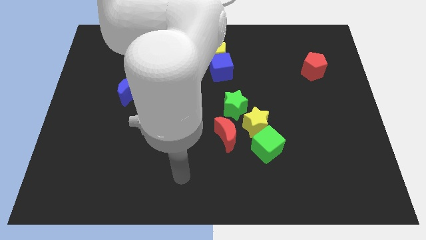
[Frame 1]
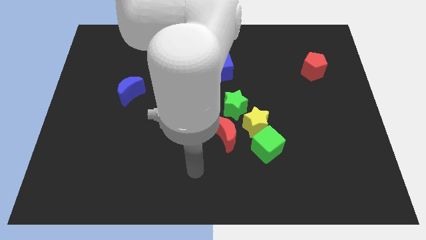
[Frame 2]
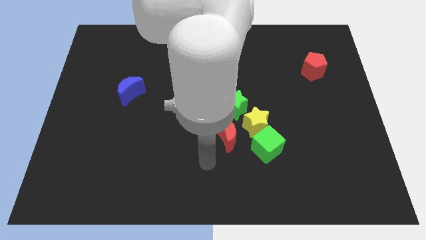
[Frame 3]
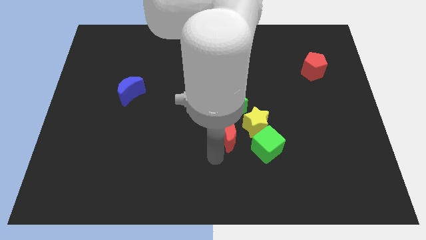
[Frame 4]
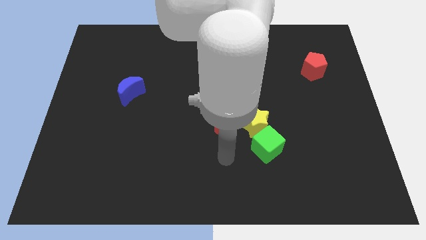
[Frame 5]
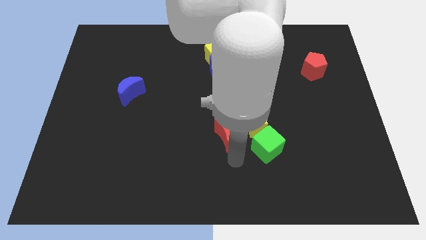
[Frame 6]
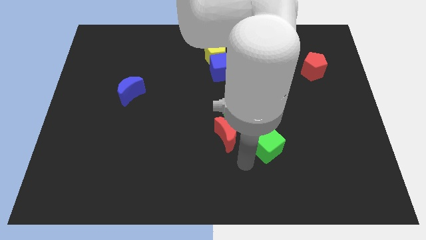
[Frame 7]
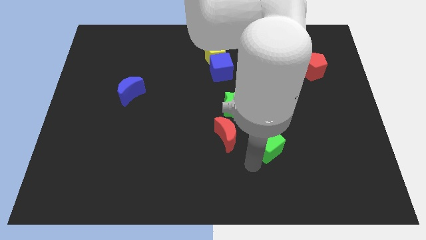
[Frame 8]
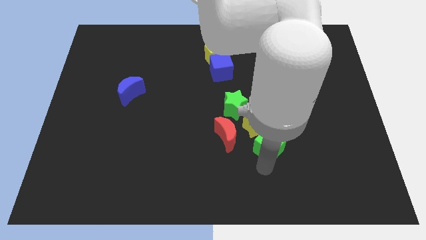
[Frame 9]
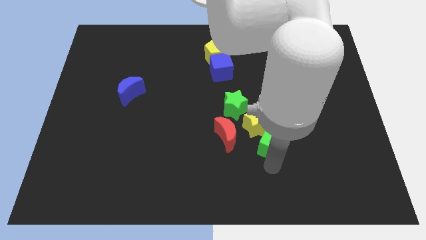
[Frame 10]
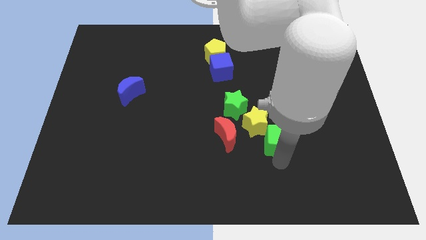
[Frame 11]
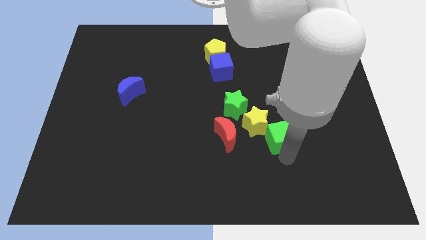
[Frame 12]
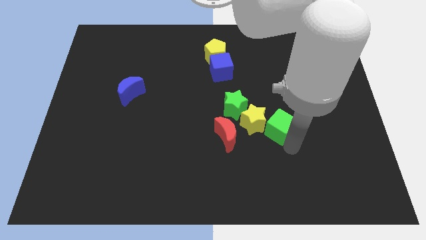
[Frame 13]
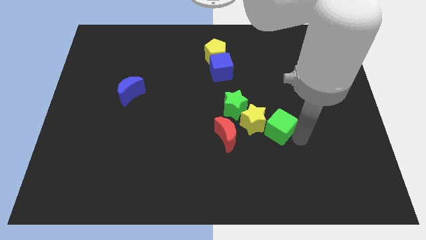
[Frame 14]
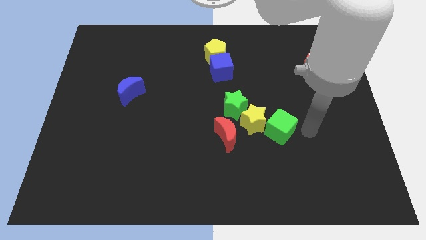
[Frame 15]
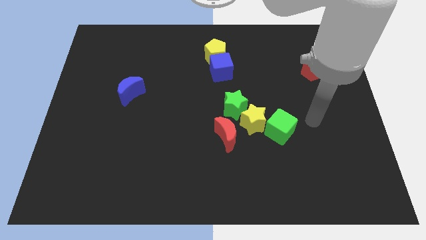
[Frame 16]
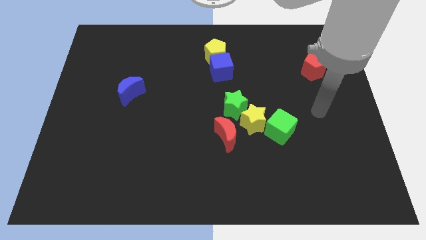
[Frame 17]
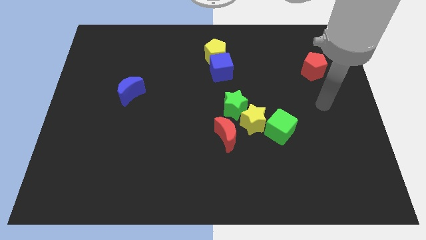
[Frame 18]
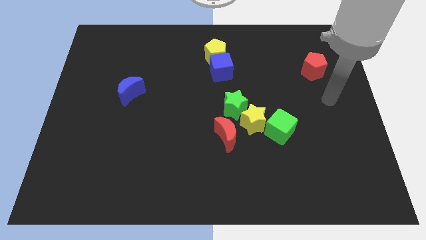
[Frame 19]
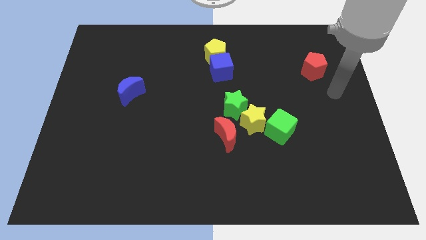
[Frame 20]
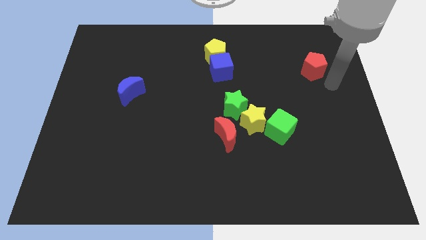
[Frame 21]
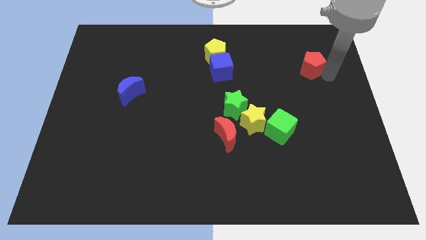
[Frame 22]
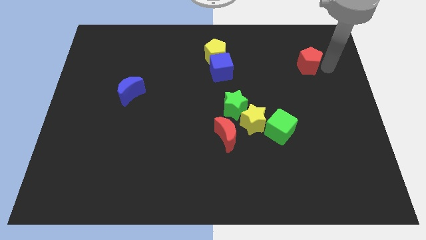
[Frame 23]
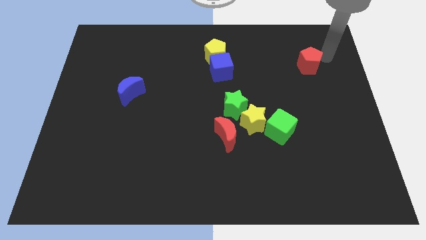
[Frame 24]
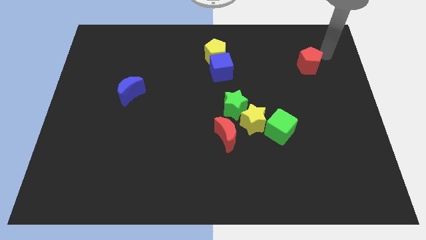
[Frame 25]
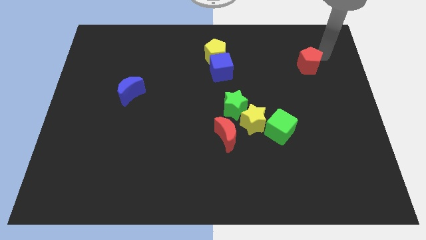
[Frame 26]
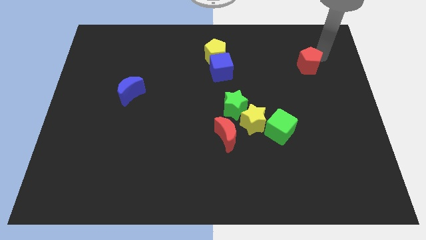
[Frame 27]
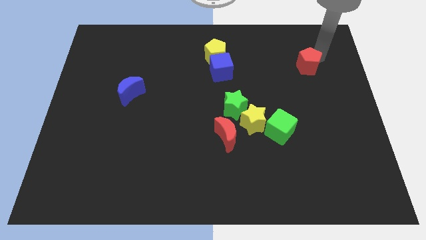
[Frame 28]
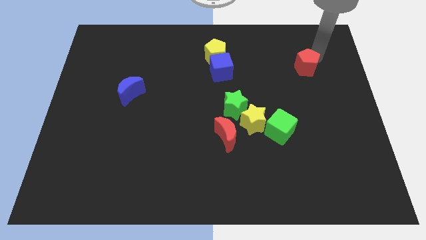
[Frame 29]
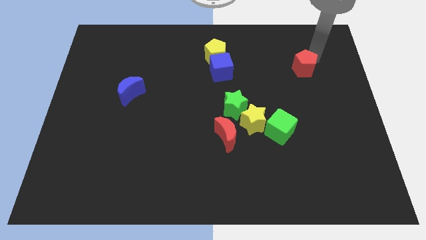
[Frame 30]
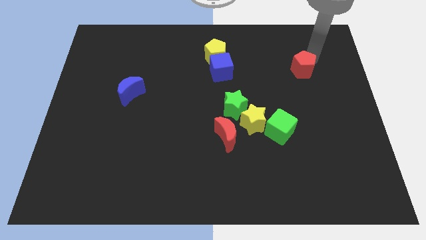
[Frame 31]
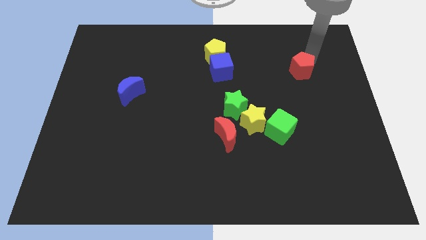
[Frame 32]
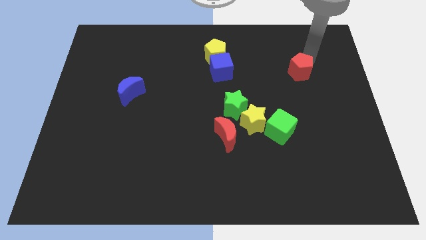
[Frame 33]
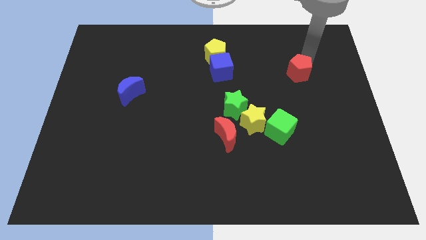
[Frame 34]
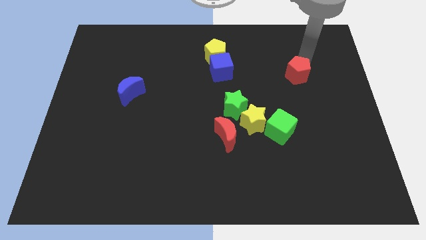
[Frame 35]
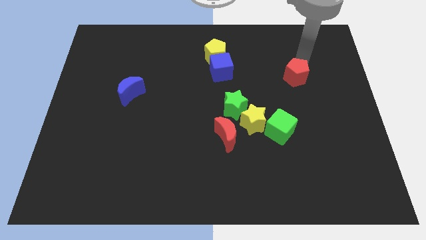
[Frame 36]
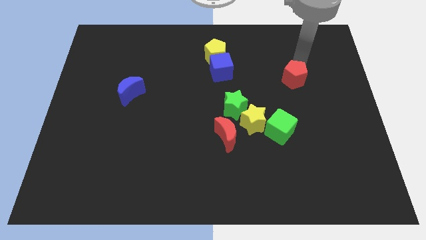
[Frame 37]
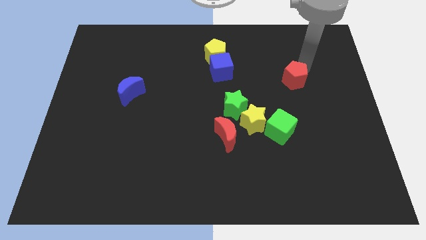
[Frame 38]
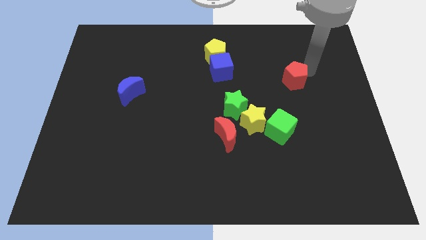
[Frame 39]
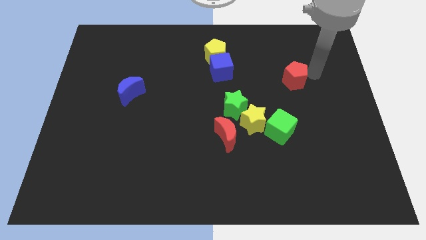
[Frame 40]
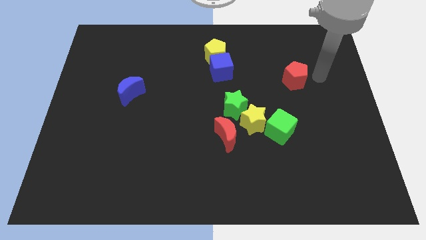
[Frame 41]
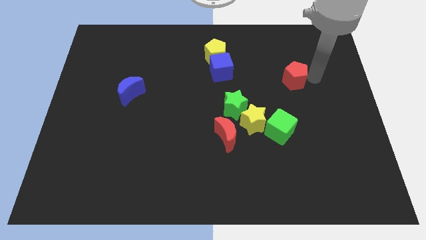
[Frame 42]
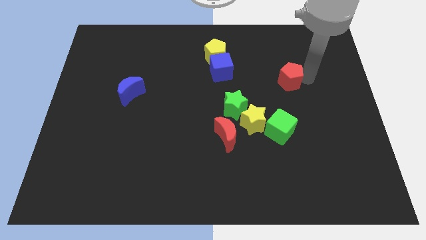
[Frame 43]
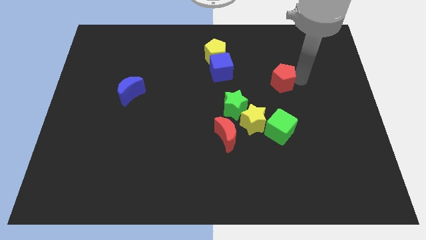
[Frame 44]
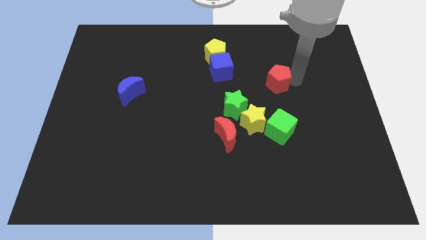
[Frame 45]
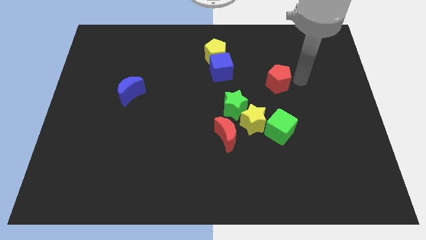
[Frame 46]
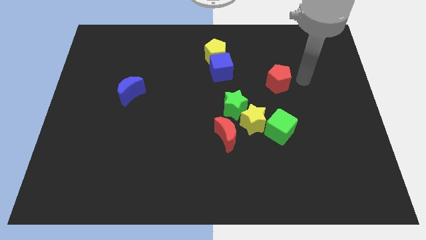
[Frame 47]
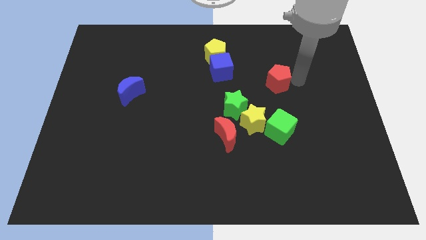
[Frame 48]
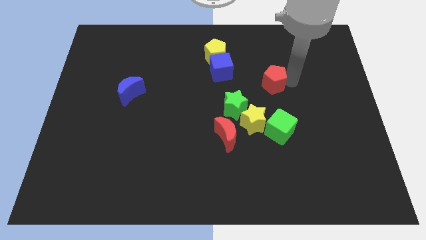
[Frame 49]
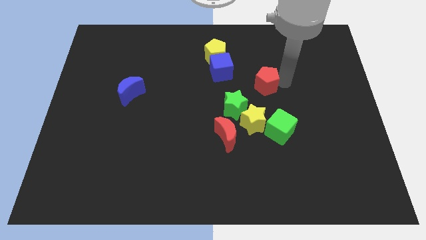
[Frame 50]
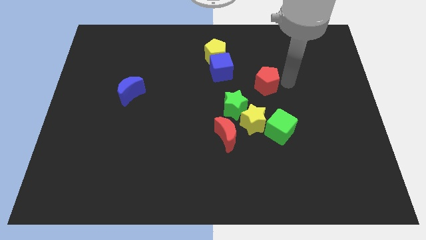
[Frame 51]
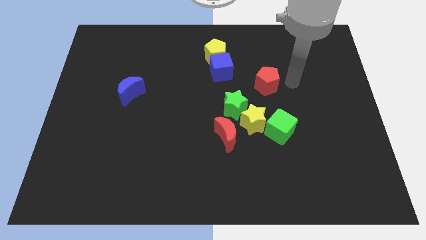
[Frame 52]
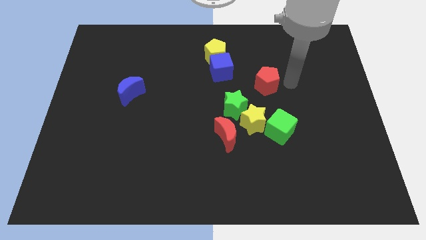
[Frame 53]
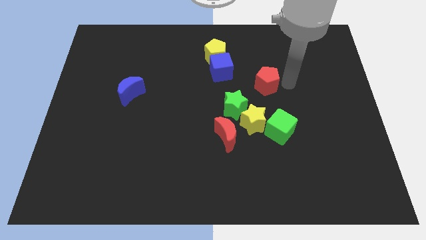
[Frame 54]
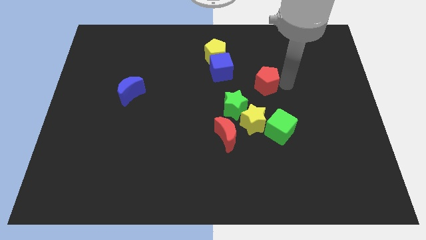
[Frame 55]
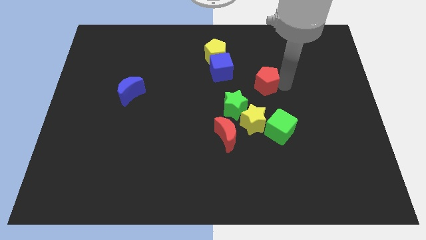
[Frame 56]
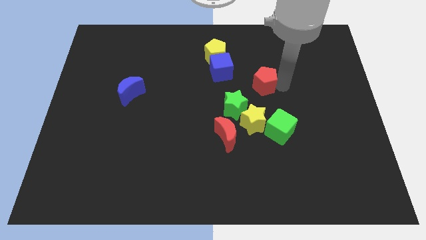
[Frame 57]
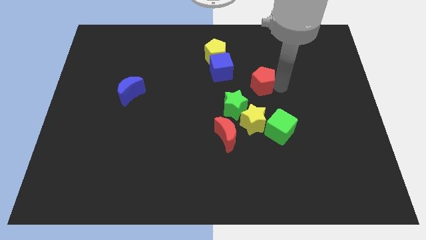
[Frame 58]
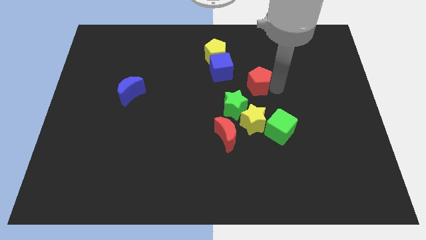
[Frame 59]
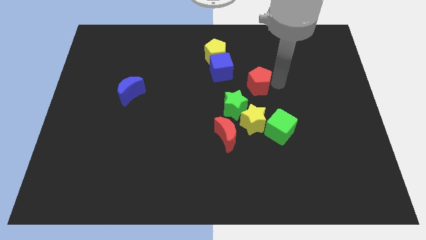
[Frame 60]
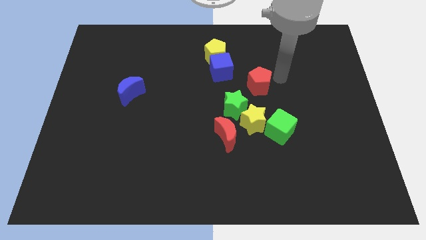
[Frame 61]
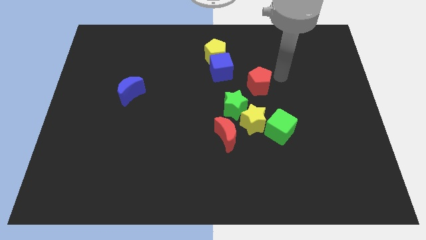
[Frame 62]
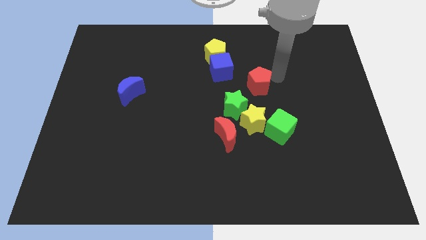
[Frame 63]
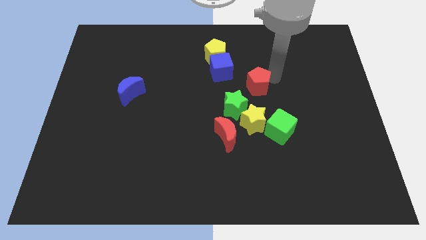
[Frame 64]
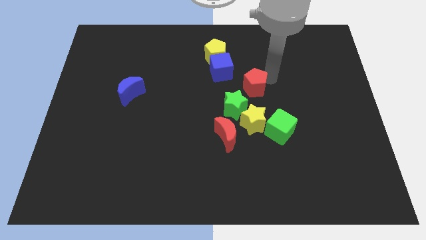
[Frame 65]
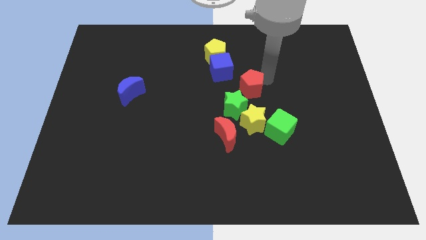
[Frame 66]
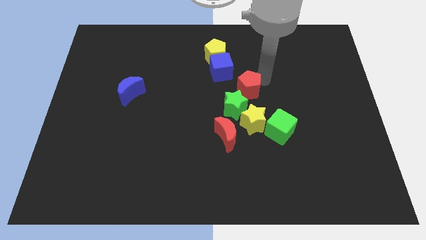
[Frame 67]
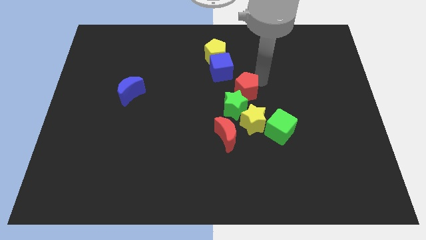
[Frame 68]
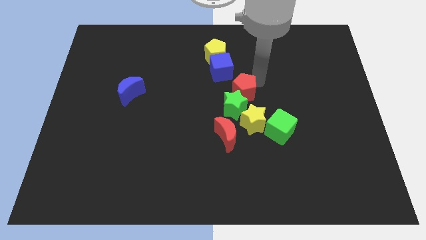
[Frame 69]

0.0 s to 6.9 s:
slide the red pentagon to the top of the red moon
